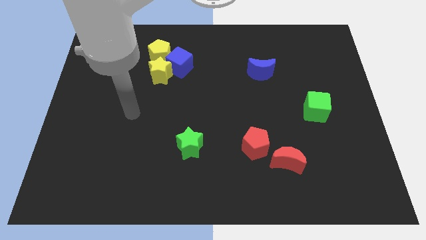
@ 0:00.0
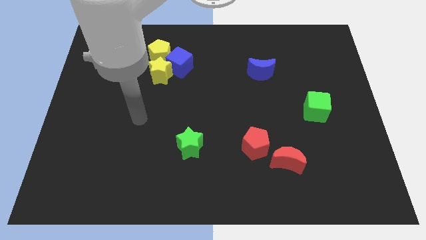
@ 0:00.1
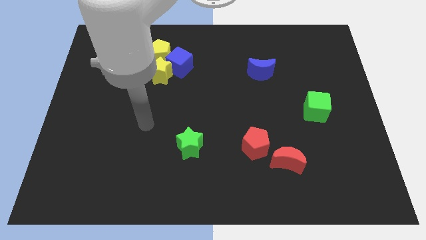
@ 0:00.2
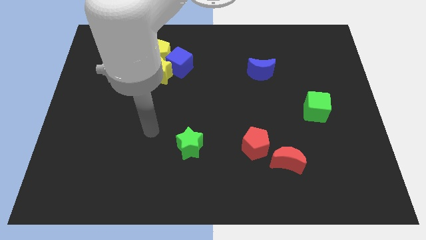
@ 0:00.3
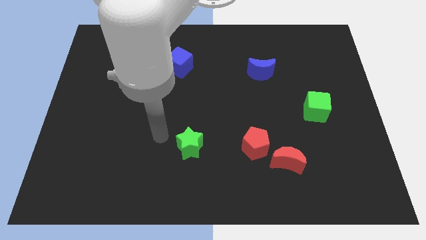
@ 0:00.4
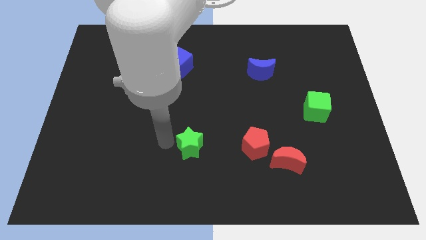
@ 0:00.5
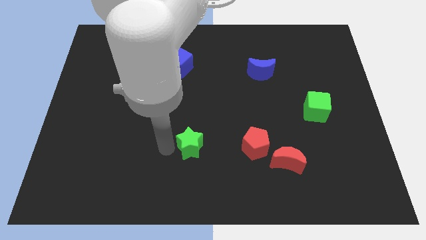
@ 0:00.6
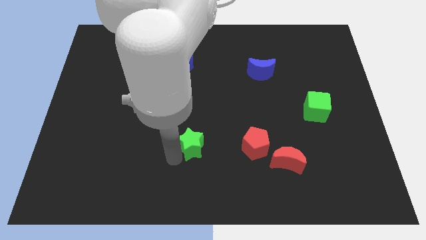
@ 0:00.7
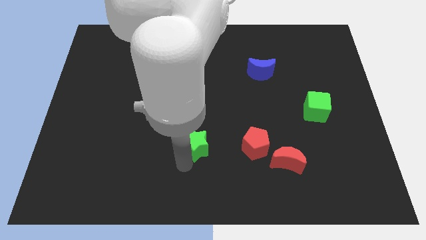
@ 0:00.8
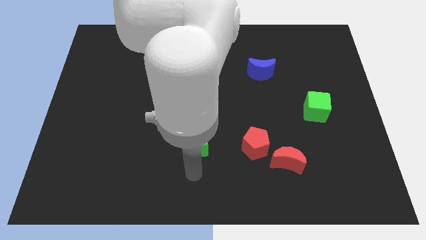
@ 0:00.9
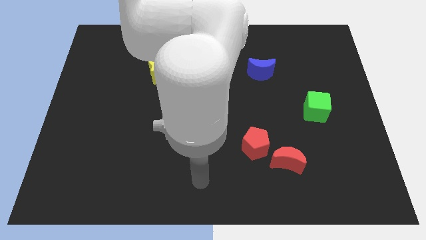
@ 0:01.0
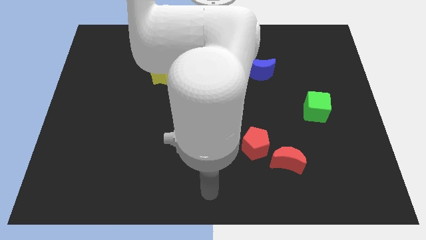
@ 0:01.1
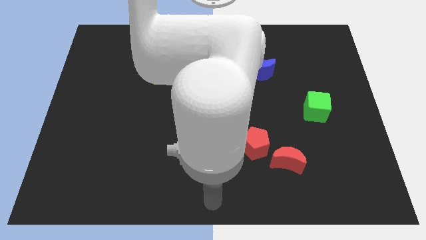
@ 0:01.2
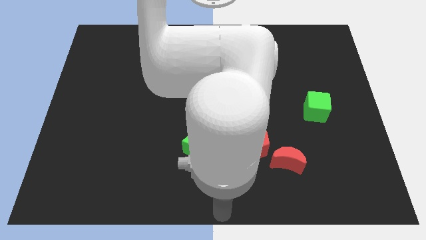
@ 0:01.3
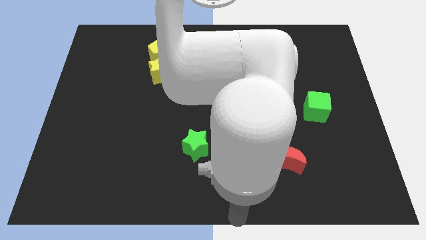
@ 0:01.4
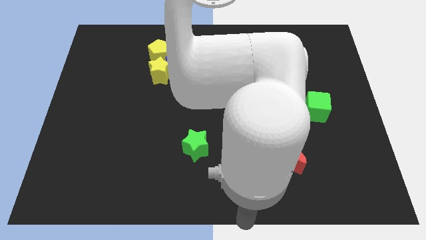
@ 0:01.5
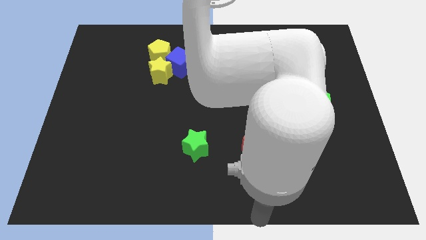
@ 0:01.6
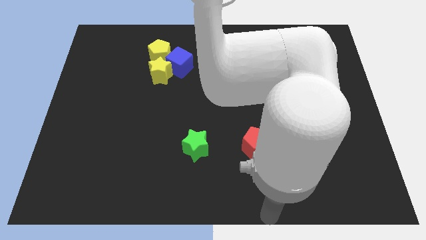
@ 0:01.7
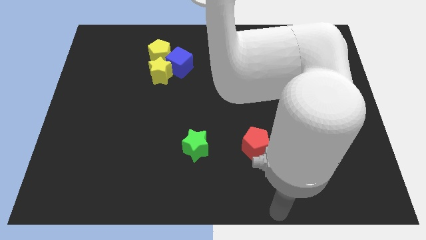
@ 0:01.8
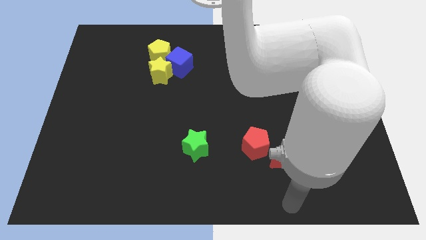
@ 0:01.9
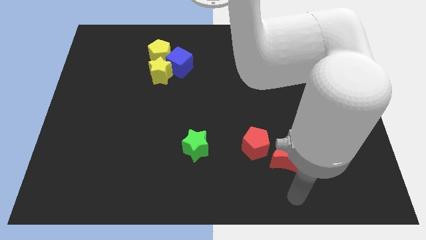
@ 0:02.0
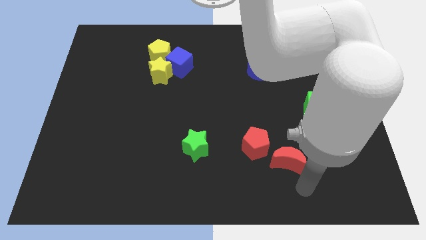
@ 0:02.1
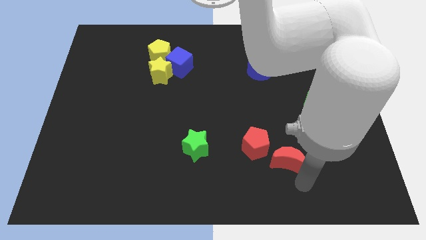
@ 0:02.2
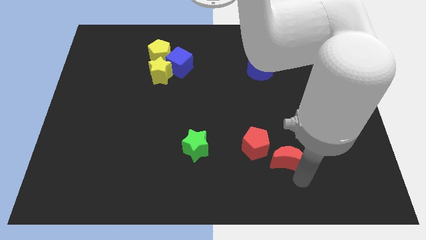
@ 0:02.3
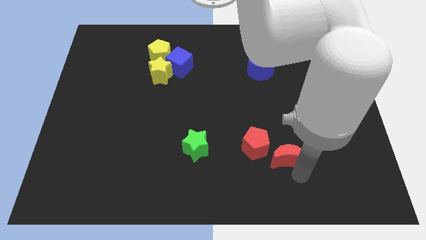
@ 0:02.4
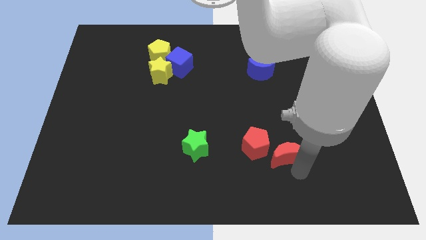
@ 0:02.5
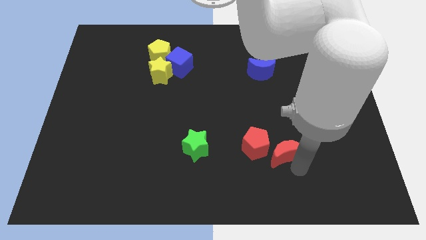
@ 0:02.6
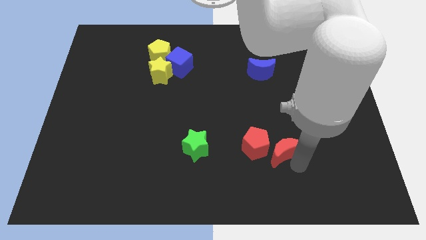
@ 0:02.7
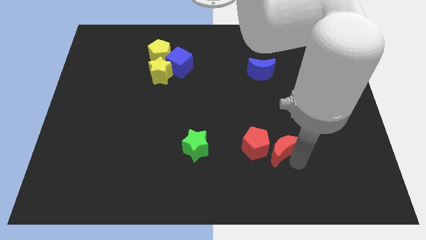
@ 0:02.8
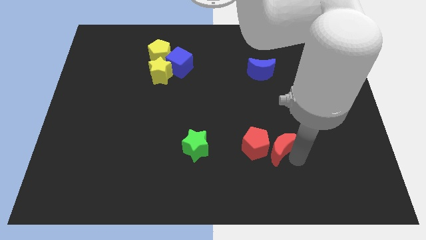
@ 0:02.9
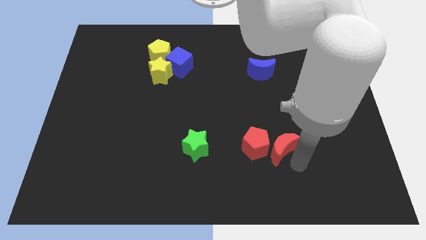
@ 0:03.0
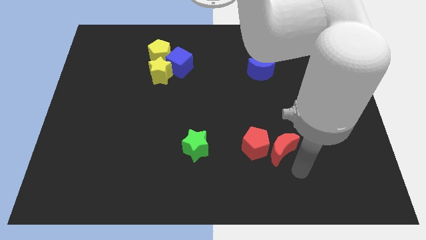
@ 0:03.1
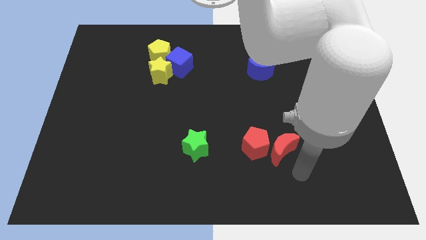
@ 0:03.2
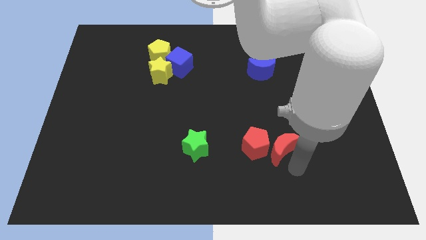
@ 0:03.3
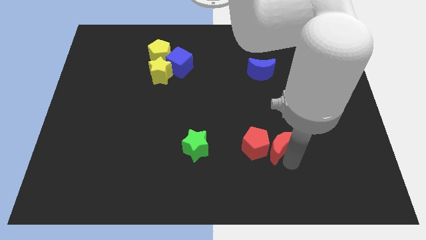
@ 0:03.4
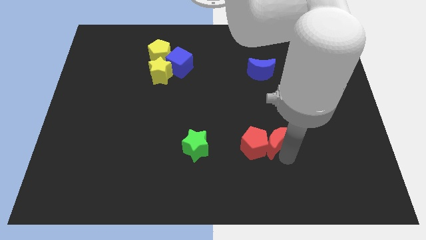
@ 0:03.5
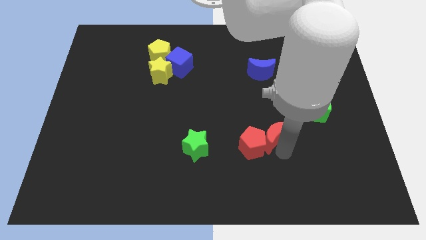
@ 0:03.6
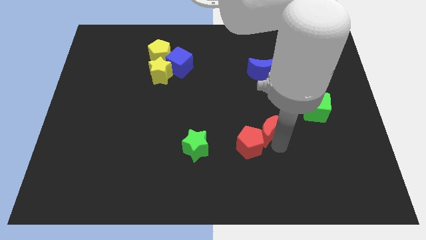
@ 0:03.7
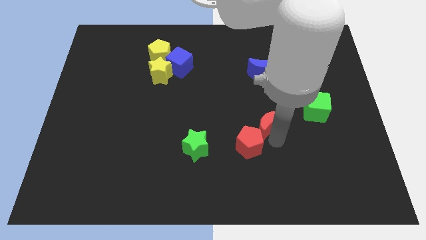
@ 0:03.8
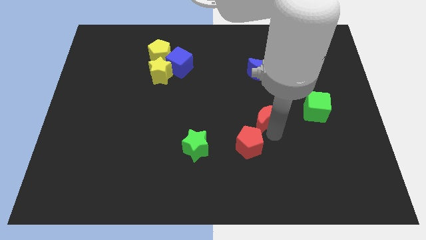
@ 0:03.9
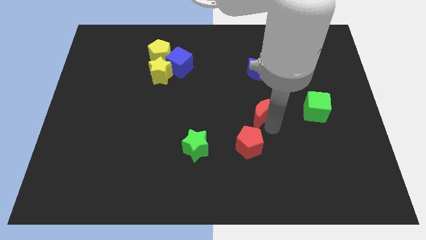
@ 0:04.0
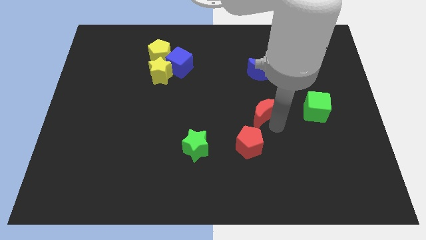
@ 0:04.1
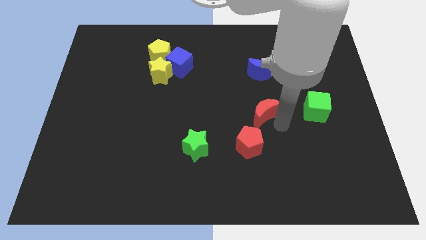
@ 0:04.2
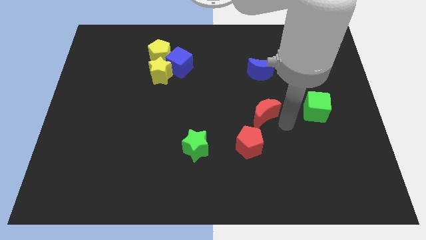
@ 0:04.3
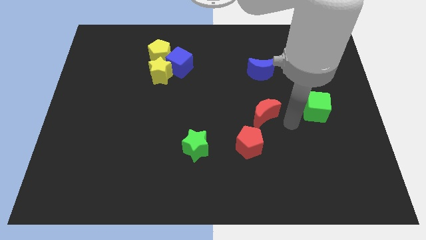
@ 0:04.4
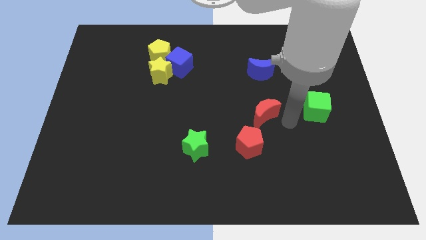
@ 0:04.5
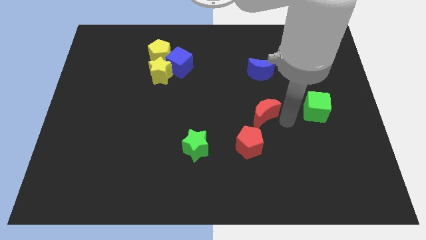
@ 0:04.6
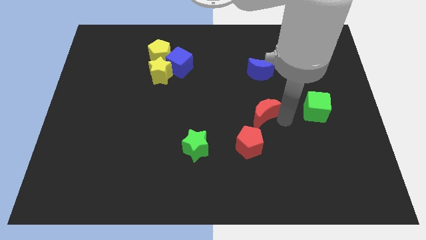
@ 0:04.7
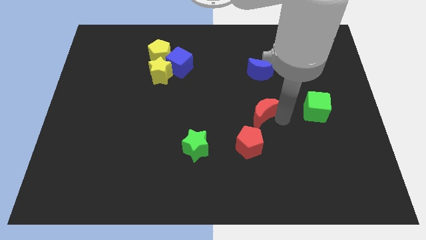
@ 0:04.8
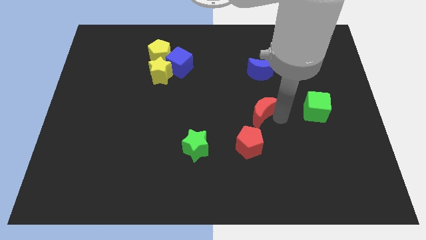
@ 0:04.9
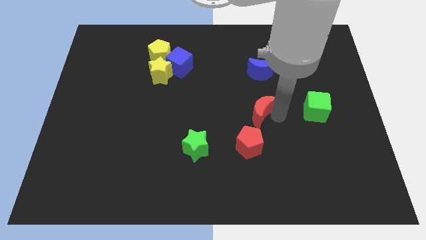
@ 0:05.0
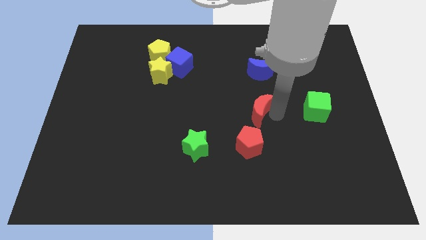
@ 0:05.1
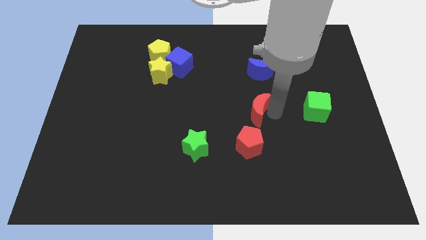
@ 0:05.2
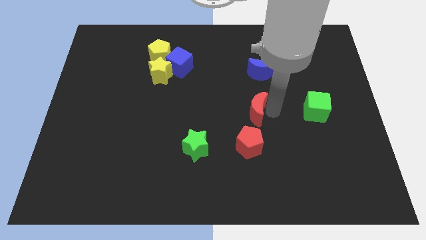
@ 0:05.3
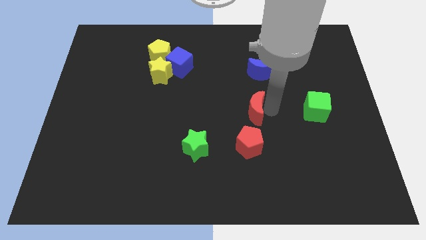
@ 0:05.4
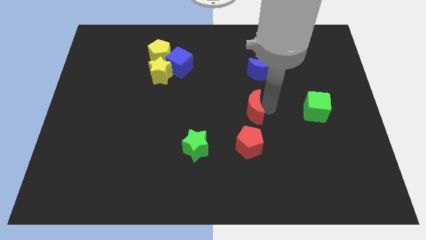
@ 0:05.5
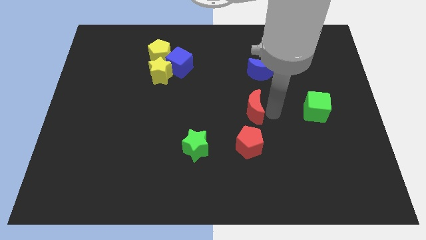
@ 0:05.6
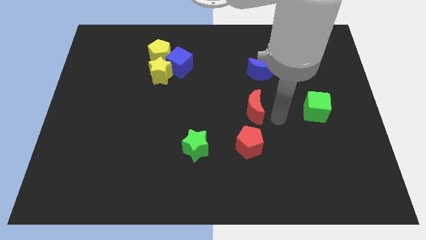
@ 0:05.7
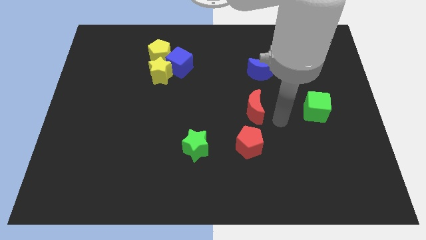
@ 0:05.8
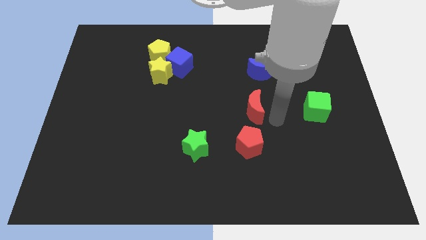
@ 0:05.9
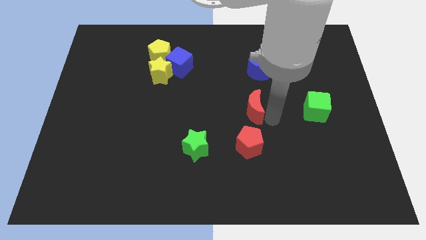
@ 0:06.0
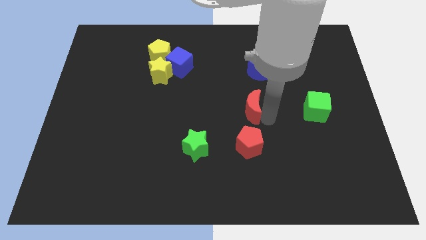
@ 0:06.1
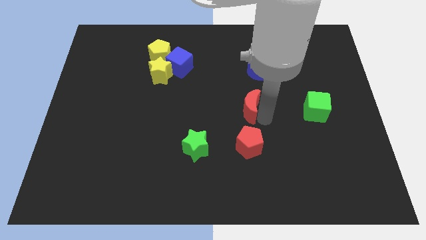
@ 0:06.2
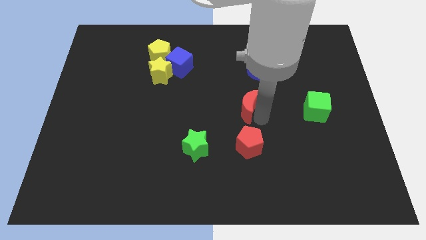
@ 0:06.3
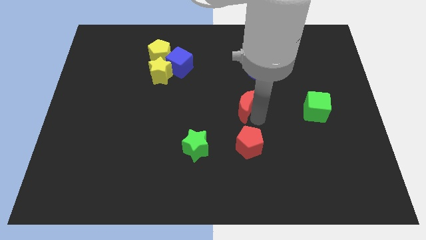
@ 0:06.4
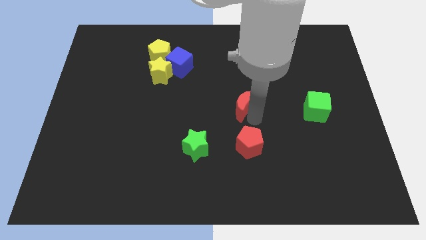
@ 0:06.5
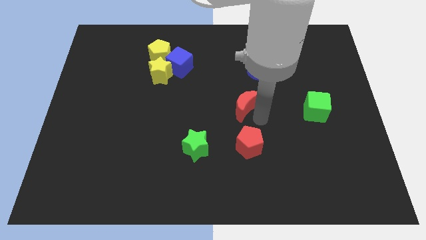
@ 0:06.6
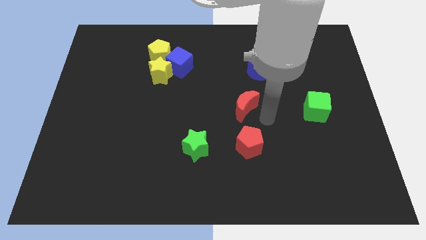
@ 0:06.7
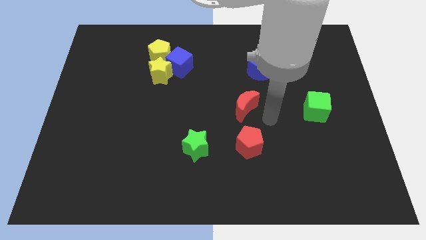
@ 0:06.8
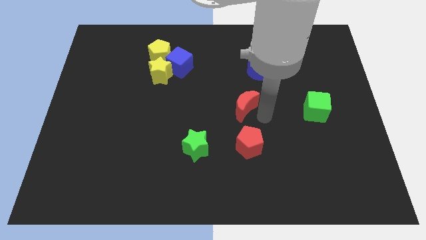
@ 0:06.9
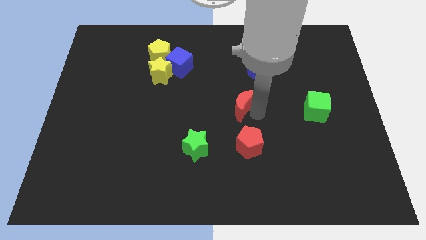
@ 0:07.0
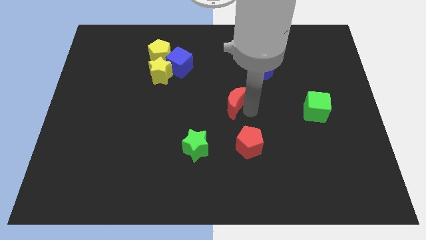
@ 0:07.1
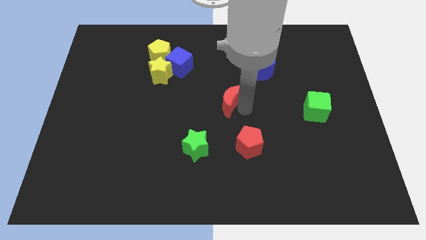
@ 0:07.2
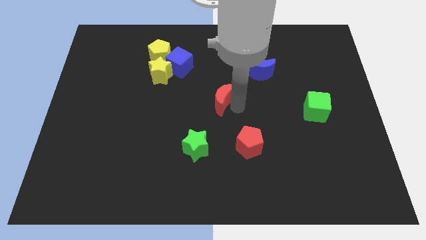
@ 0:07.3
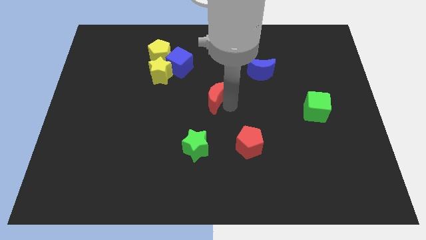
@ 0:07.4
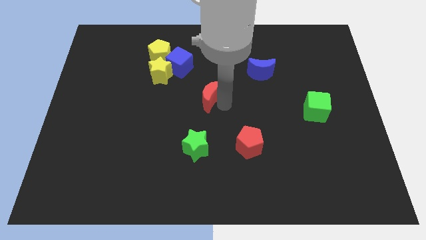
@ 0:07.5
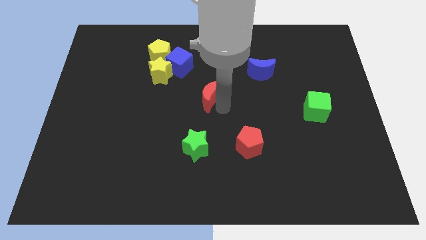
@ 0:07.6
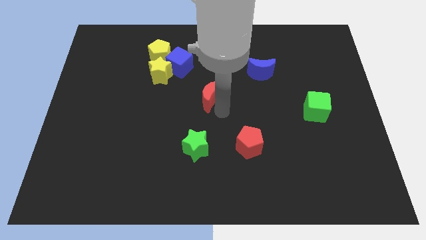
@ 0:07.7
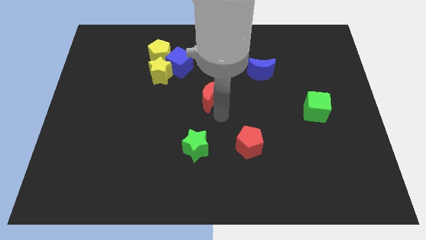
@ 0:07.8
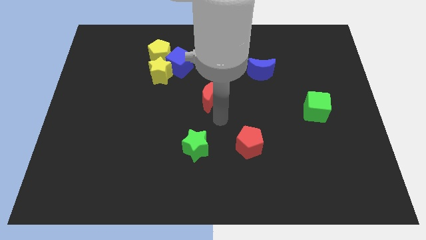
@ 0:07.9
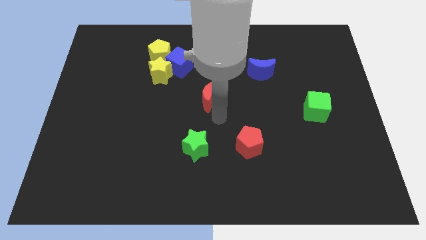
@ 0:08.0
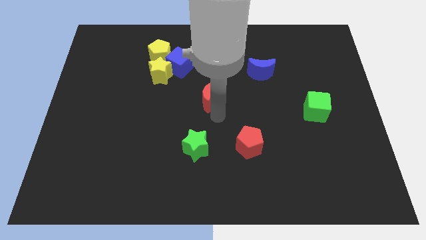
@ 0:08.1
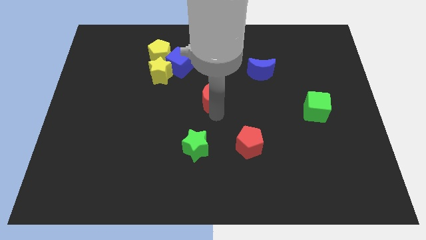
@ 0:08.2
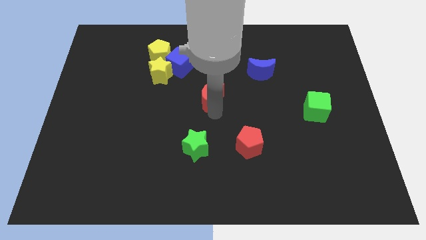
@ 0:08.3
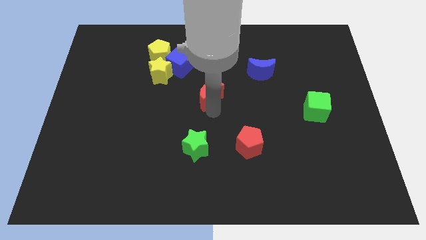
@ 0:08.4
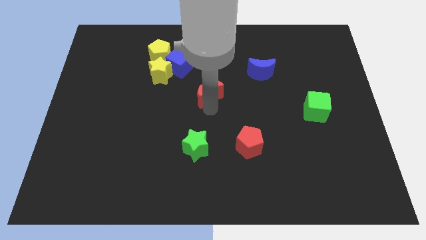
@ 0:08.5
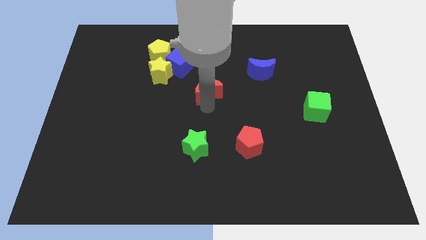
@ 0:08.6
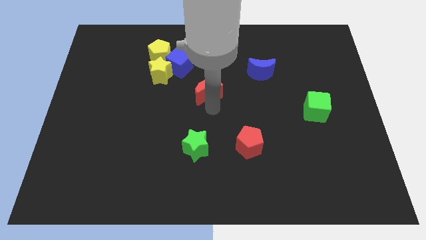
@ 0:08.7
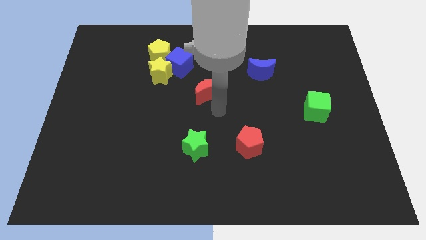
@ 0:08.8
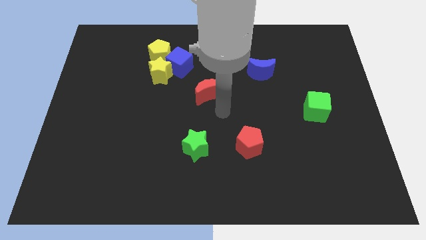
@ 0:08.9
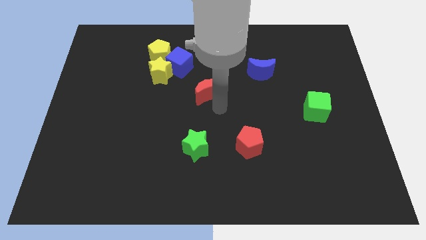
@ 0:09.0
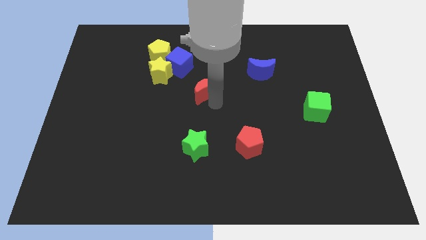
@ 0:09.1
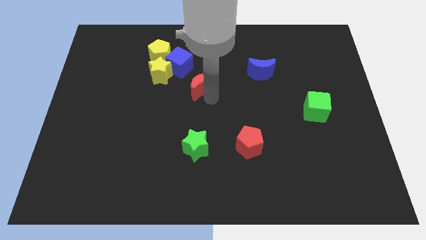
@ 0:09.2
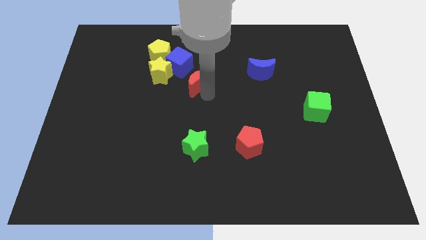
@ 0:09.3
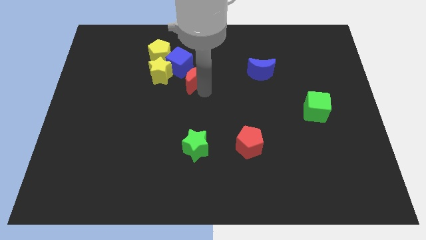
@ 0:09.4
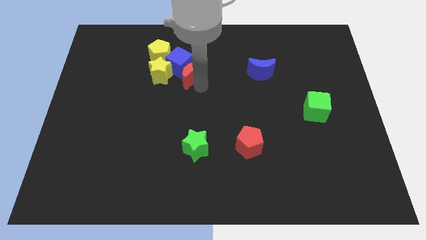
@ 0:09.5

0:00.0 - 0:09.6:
put the red moon next to the blue cube
